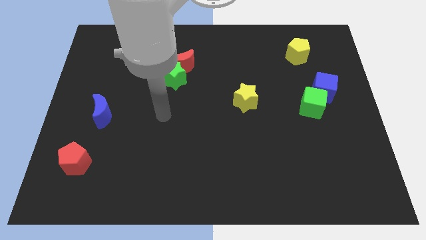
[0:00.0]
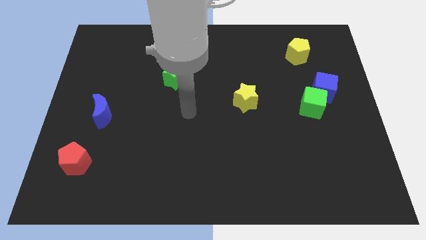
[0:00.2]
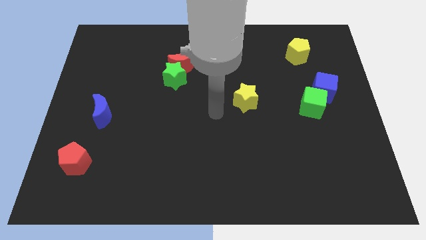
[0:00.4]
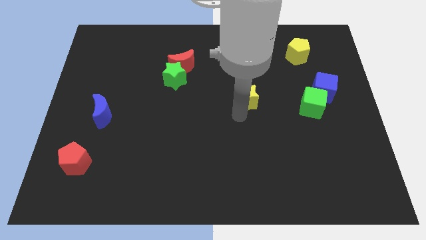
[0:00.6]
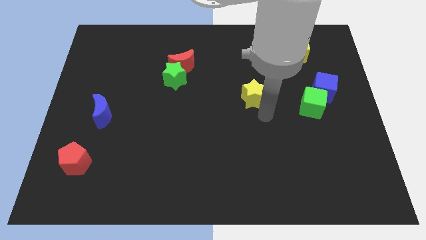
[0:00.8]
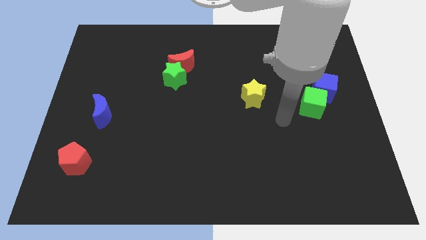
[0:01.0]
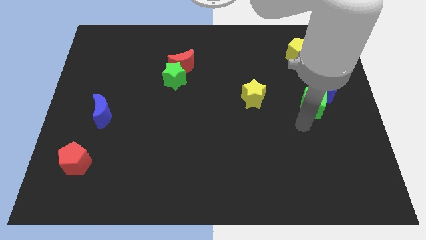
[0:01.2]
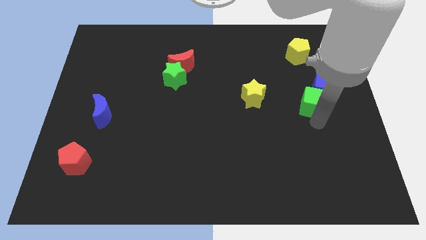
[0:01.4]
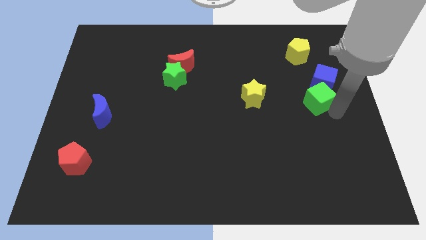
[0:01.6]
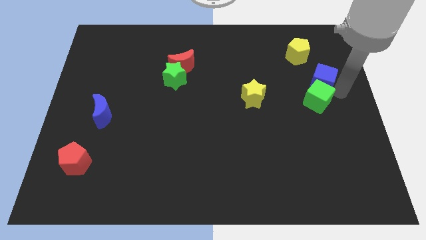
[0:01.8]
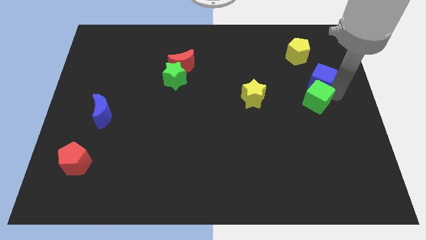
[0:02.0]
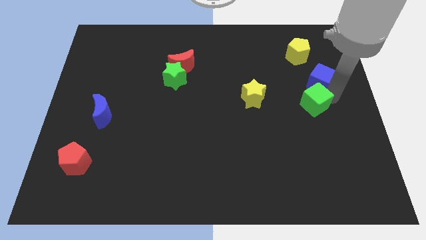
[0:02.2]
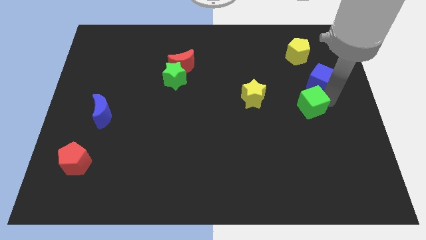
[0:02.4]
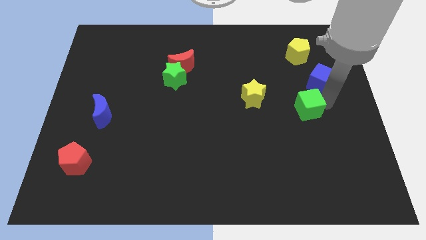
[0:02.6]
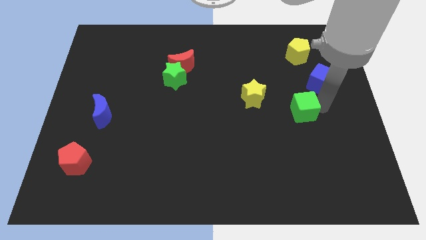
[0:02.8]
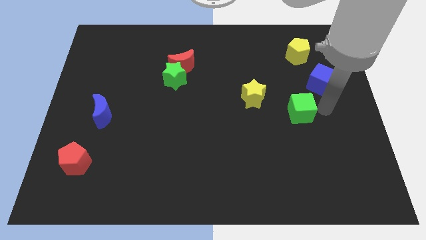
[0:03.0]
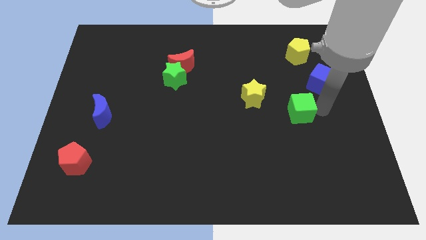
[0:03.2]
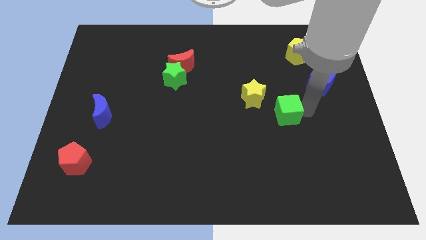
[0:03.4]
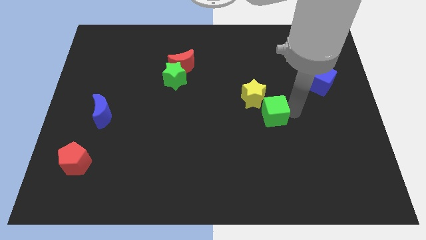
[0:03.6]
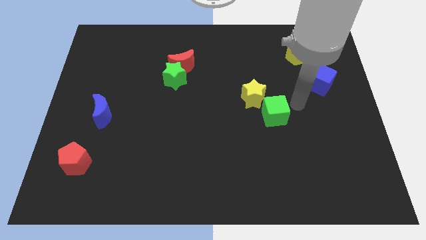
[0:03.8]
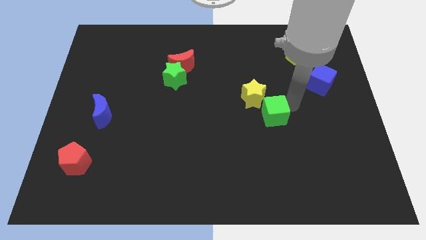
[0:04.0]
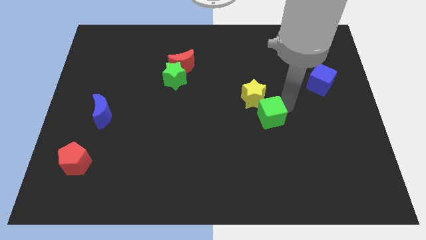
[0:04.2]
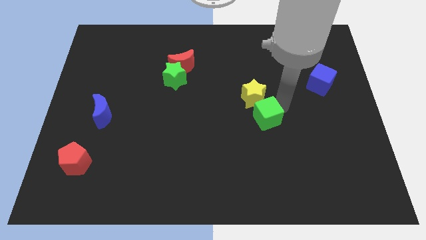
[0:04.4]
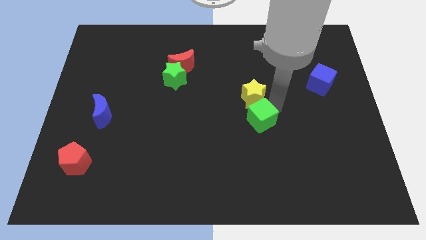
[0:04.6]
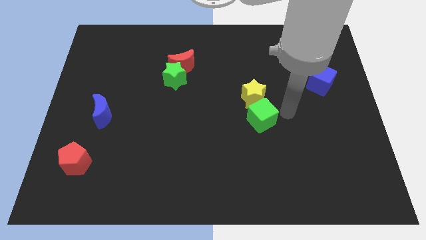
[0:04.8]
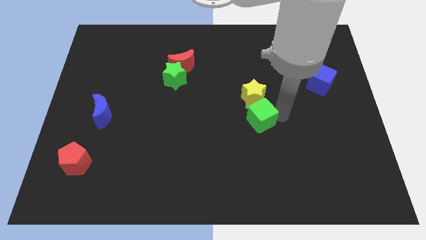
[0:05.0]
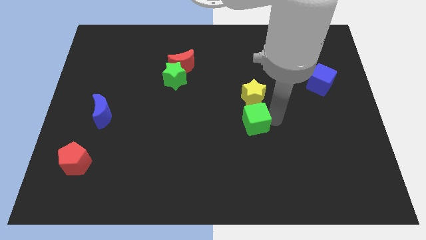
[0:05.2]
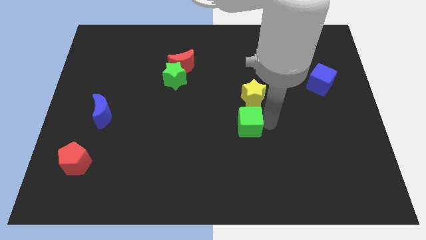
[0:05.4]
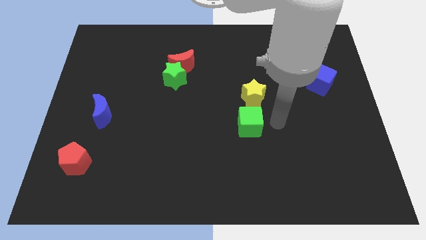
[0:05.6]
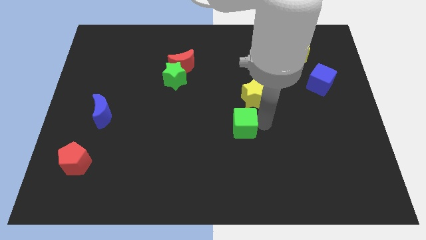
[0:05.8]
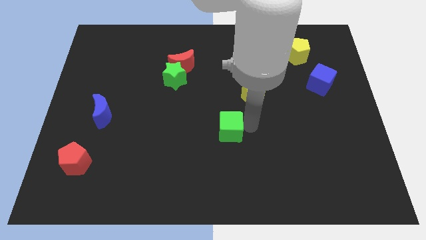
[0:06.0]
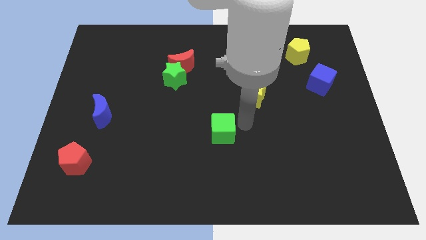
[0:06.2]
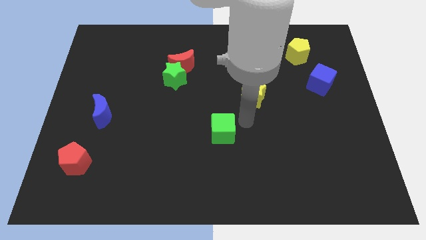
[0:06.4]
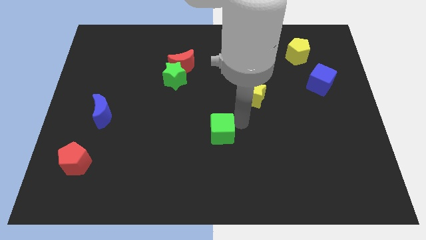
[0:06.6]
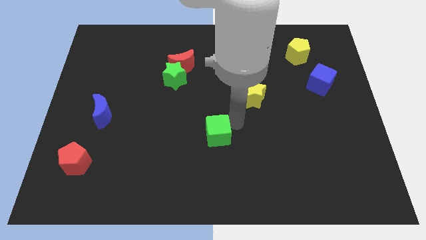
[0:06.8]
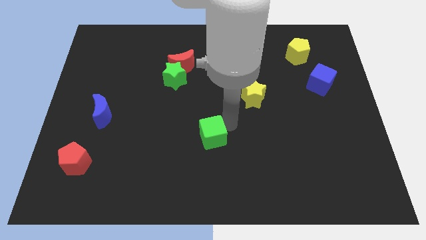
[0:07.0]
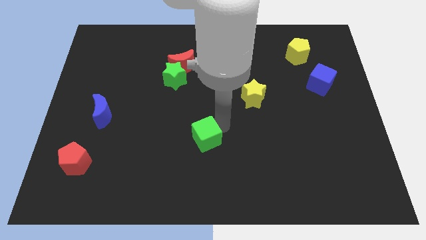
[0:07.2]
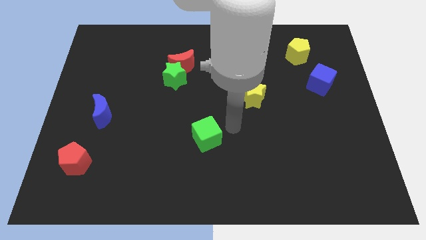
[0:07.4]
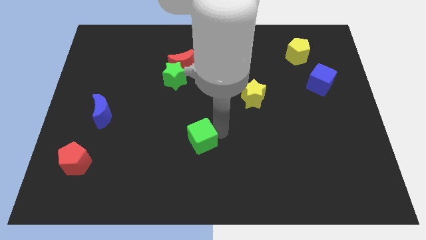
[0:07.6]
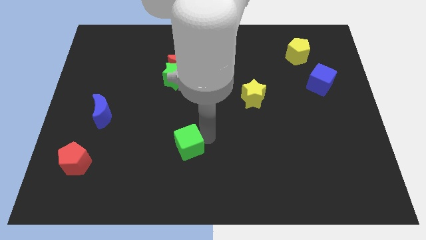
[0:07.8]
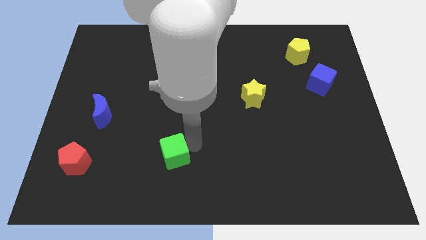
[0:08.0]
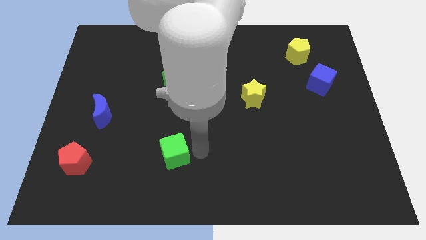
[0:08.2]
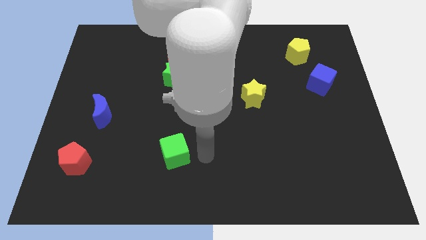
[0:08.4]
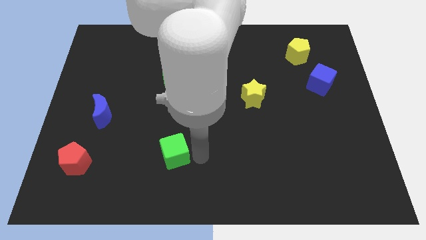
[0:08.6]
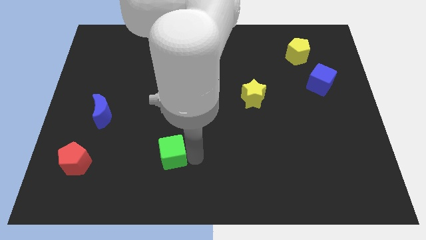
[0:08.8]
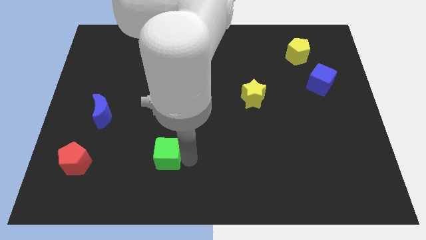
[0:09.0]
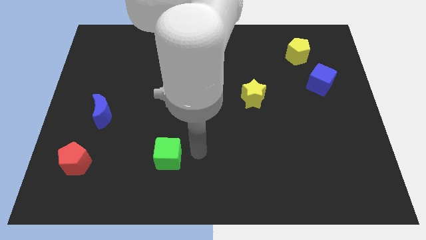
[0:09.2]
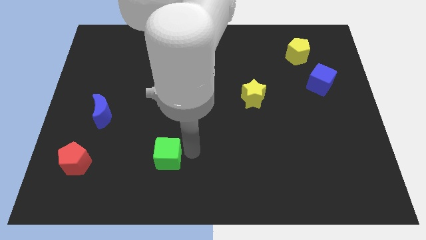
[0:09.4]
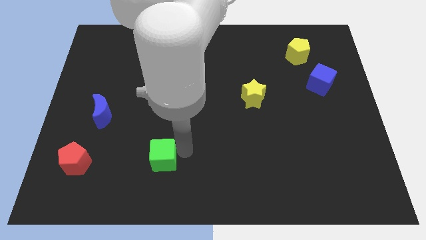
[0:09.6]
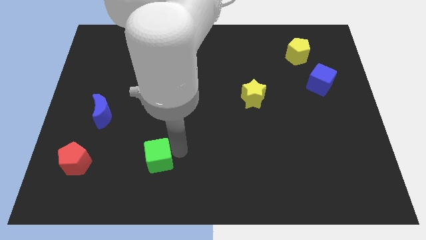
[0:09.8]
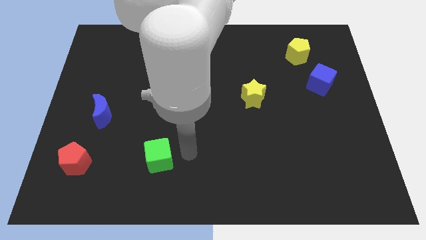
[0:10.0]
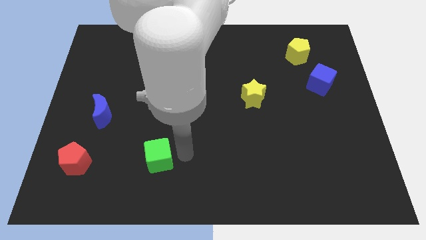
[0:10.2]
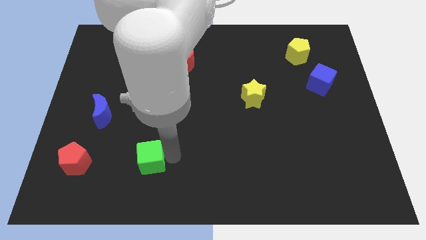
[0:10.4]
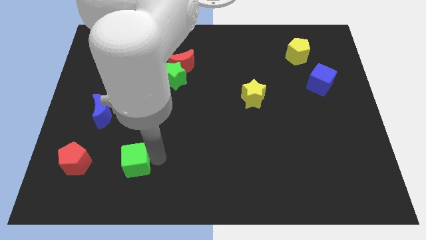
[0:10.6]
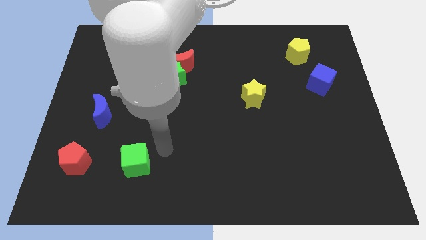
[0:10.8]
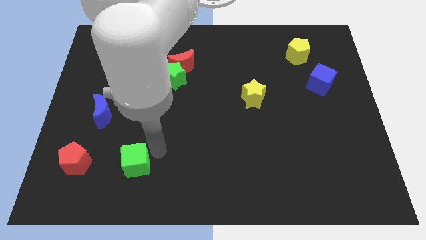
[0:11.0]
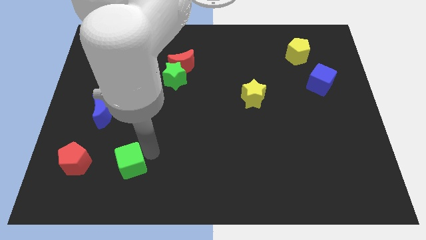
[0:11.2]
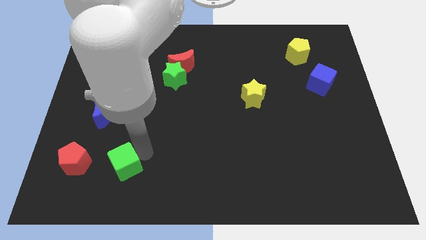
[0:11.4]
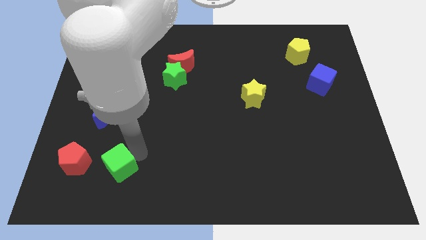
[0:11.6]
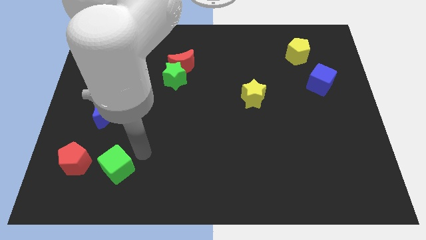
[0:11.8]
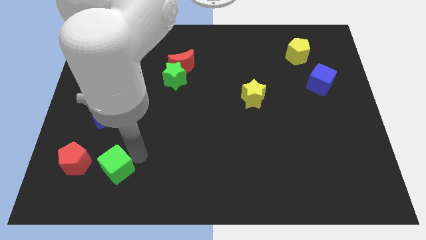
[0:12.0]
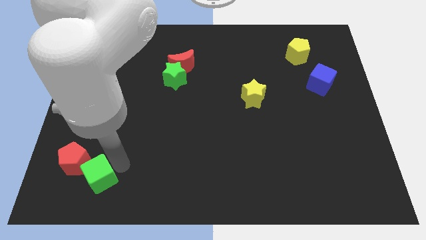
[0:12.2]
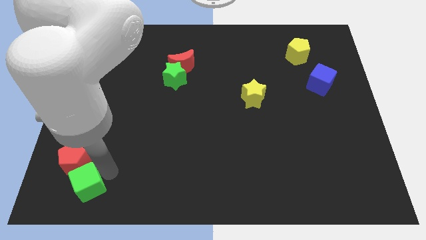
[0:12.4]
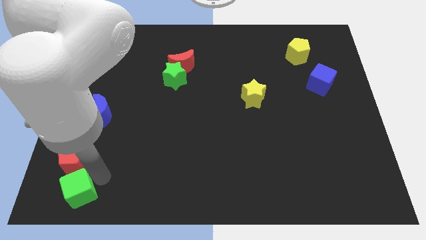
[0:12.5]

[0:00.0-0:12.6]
move the green cube to the bottom left corner
